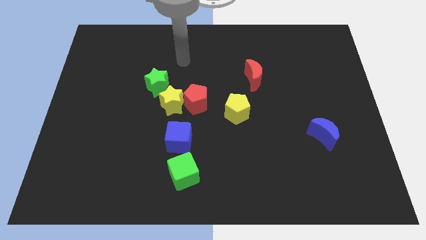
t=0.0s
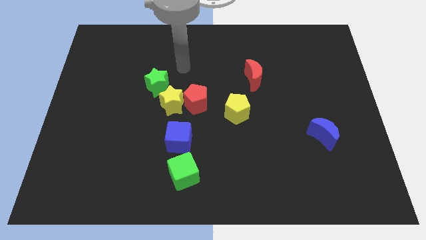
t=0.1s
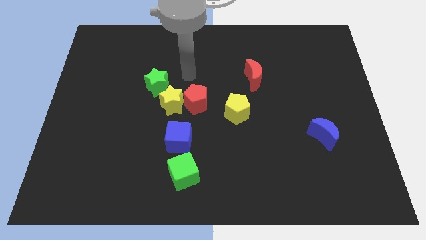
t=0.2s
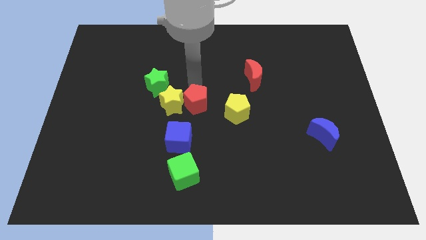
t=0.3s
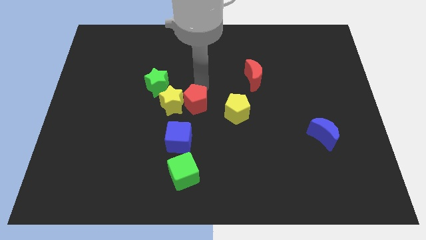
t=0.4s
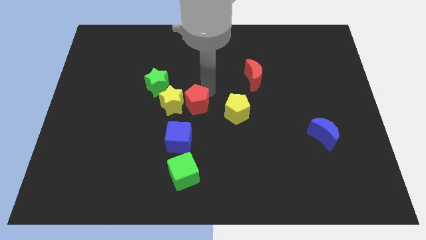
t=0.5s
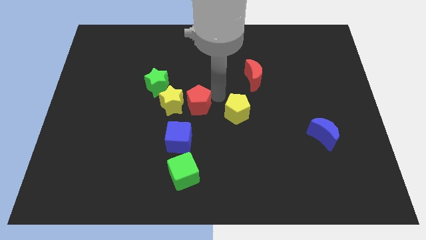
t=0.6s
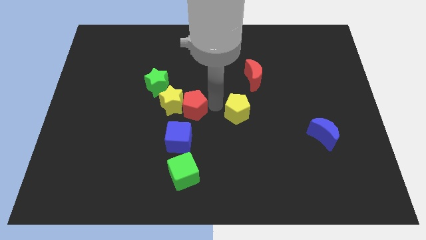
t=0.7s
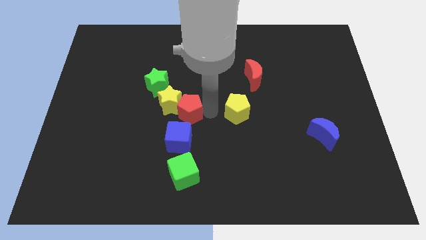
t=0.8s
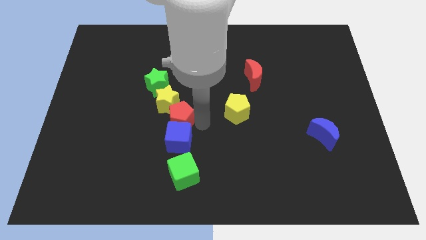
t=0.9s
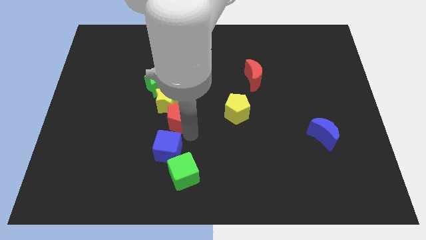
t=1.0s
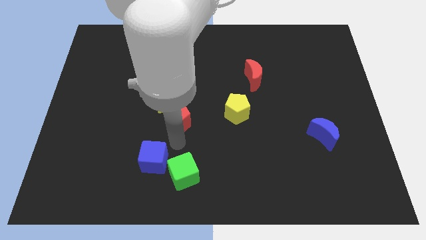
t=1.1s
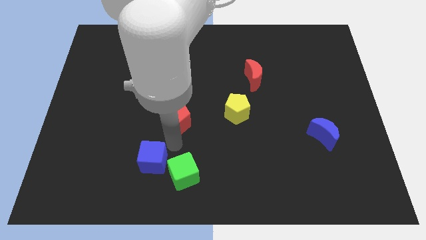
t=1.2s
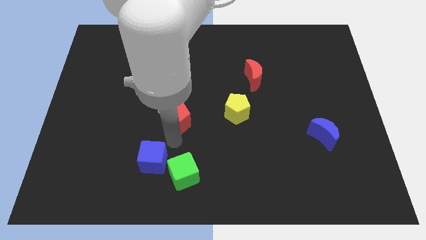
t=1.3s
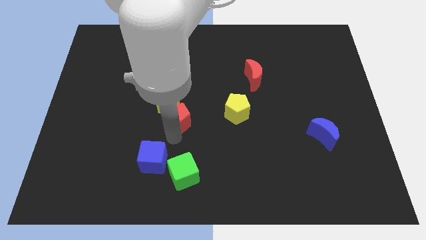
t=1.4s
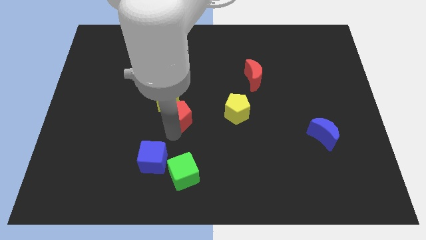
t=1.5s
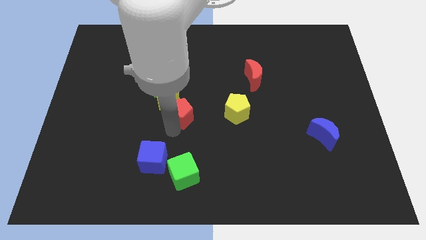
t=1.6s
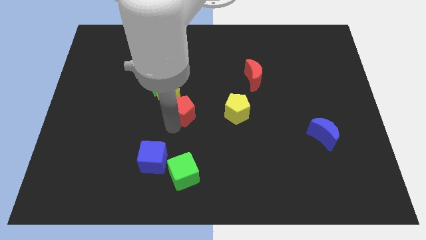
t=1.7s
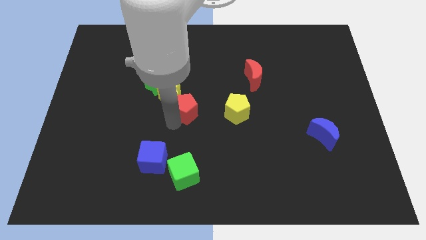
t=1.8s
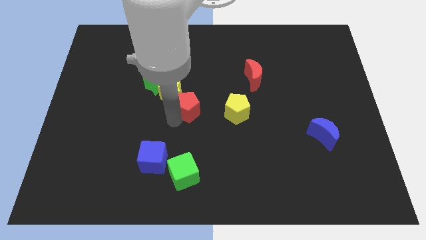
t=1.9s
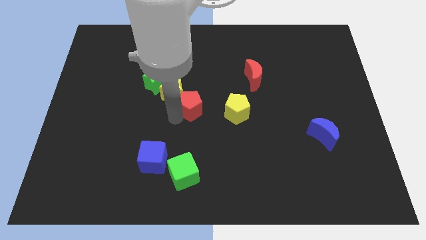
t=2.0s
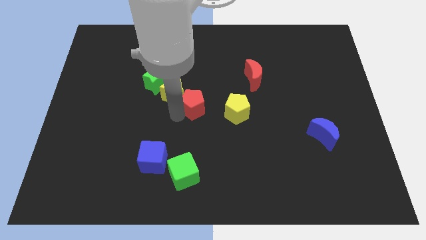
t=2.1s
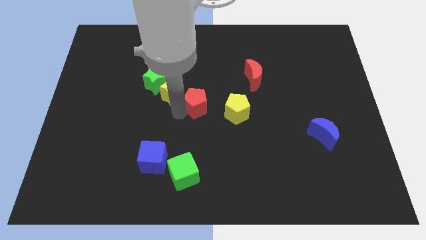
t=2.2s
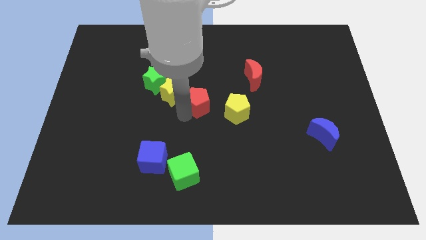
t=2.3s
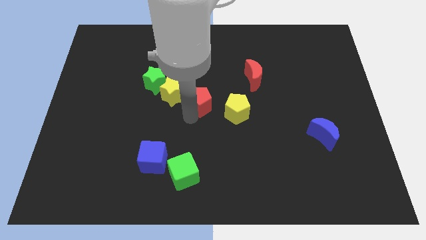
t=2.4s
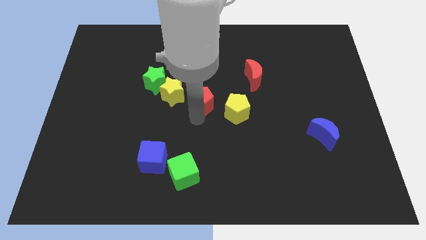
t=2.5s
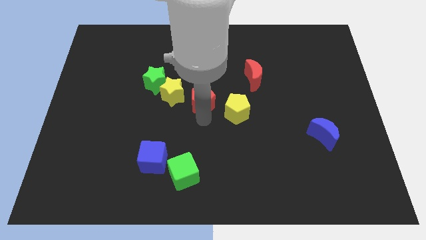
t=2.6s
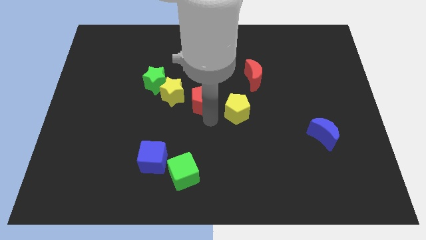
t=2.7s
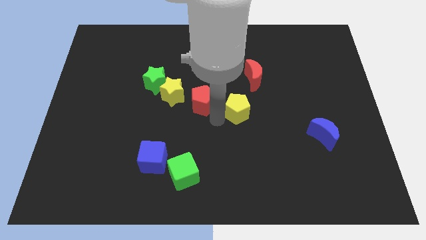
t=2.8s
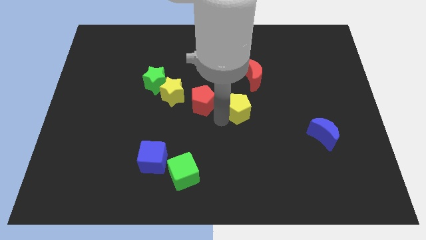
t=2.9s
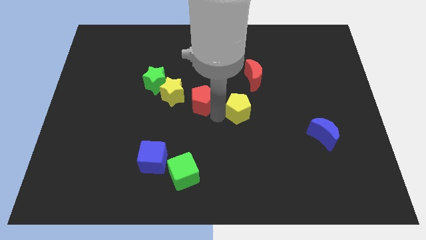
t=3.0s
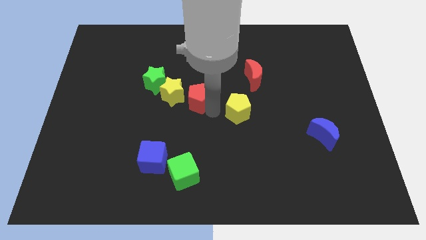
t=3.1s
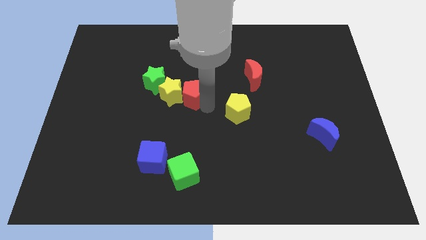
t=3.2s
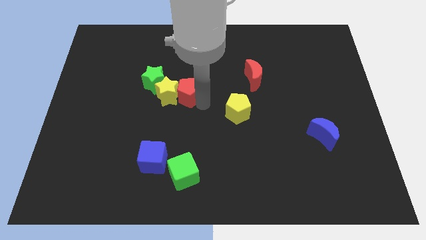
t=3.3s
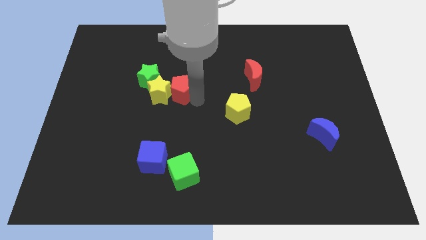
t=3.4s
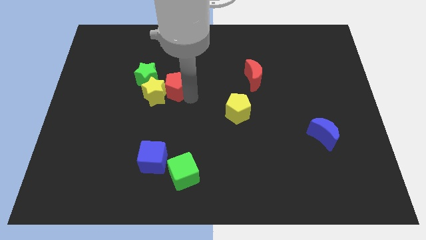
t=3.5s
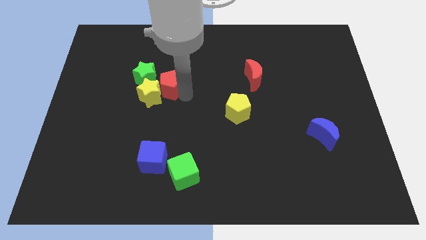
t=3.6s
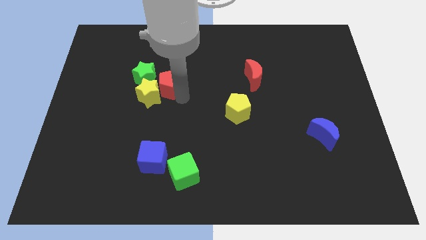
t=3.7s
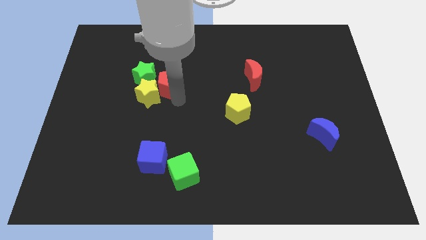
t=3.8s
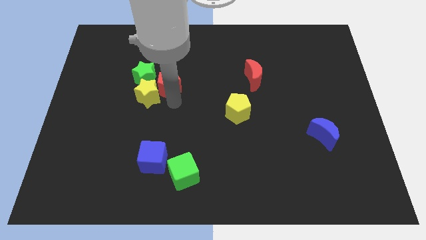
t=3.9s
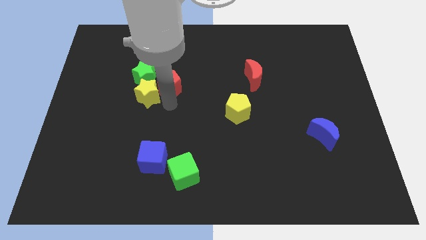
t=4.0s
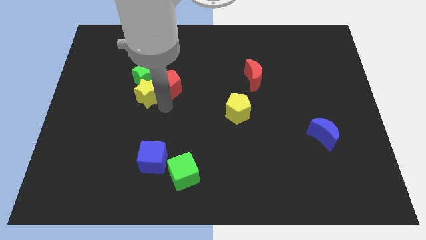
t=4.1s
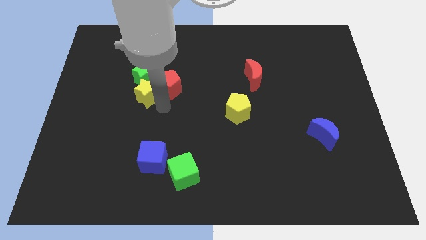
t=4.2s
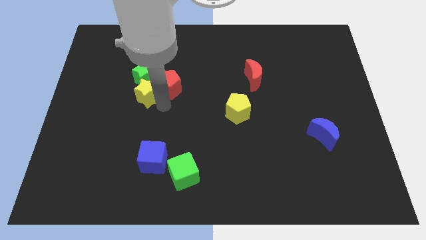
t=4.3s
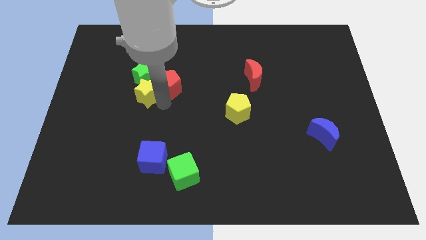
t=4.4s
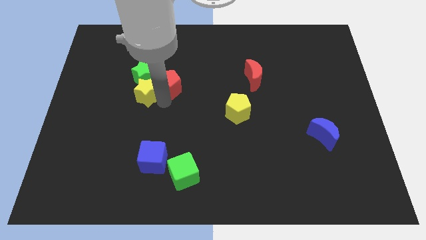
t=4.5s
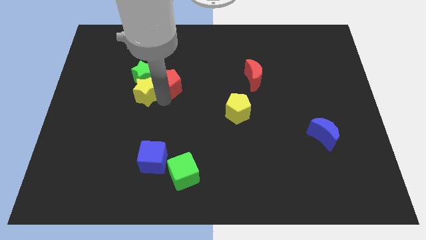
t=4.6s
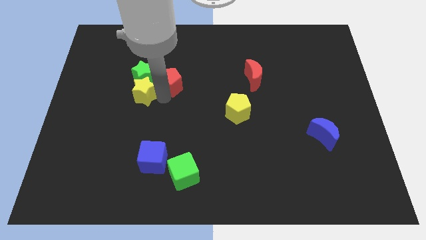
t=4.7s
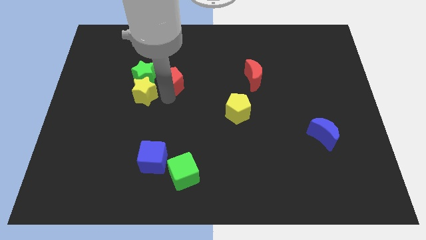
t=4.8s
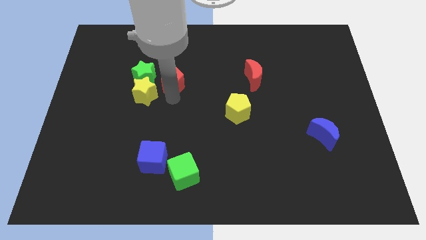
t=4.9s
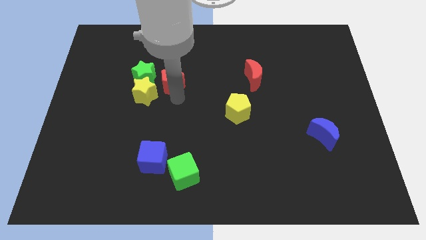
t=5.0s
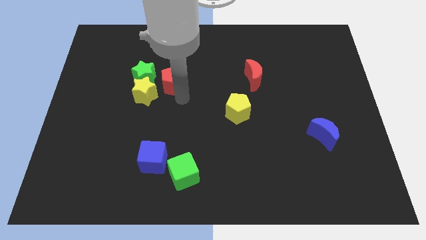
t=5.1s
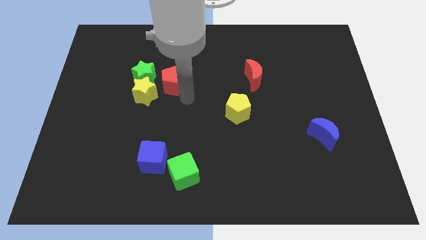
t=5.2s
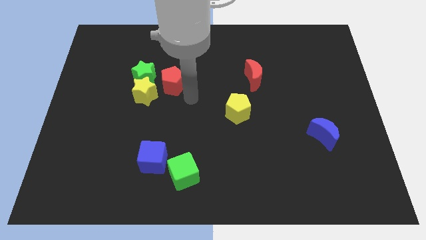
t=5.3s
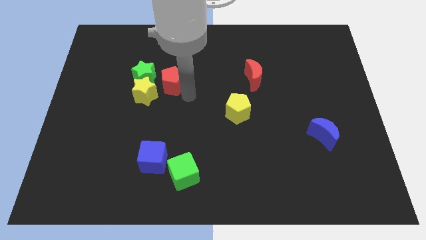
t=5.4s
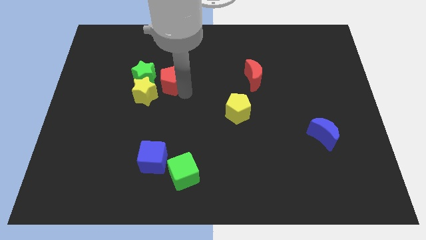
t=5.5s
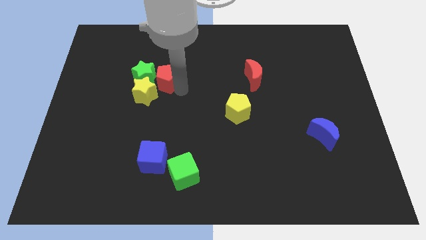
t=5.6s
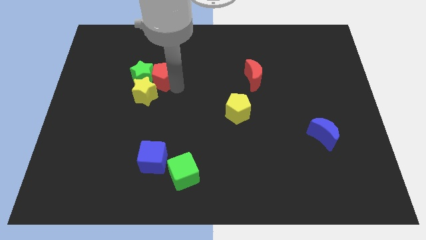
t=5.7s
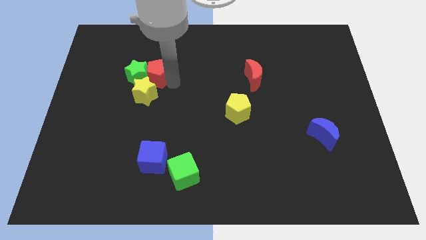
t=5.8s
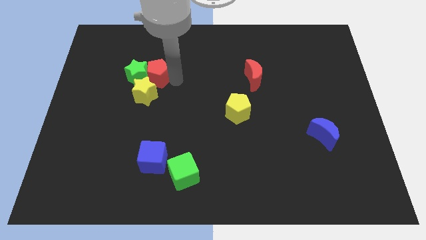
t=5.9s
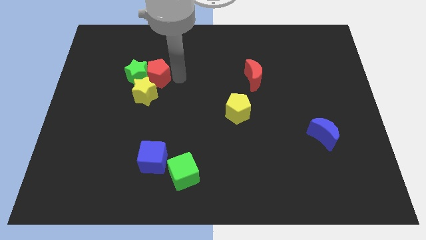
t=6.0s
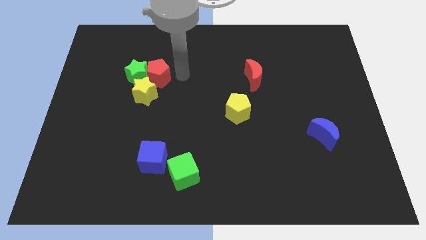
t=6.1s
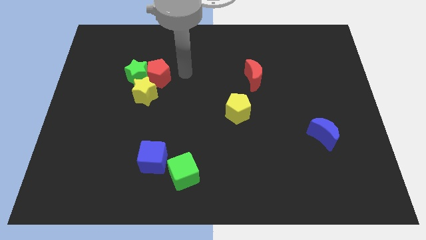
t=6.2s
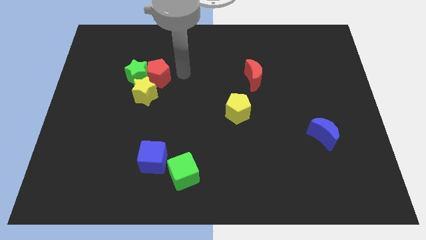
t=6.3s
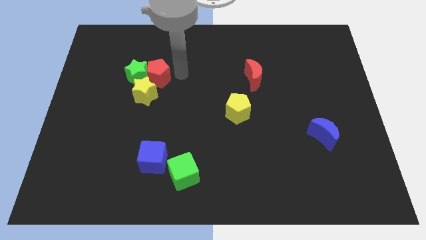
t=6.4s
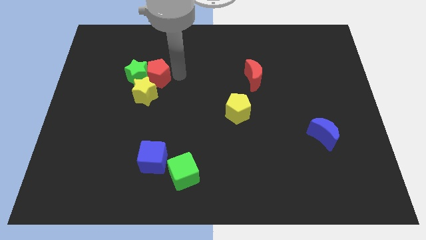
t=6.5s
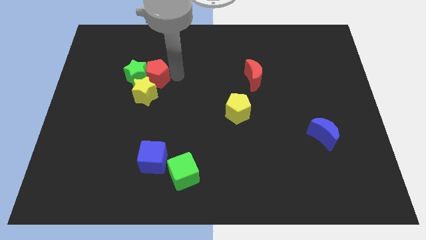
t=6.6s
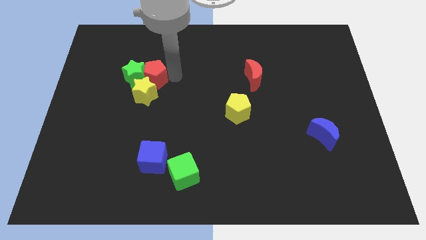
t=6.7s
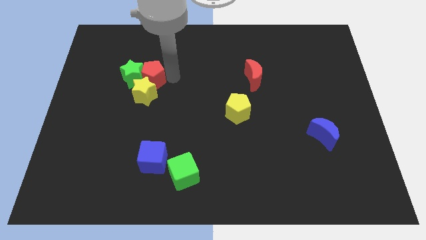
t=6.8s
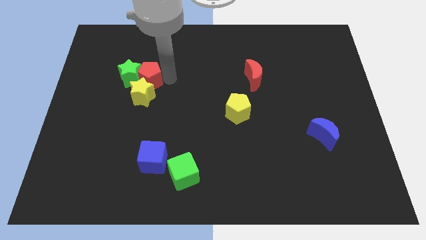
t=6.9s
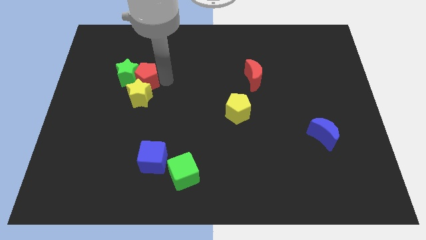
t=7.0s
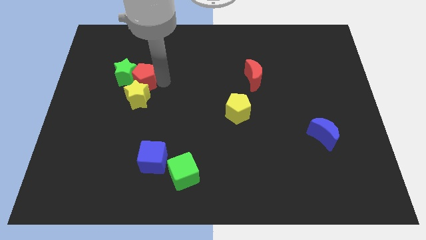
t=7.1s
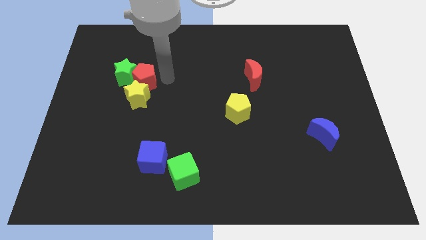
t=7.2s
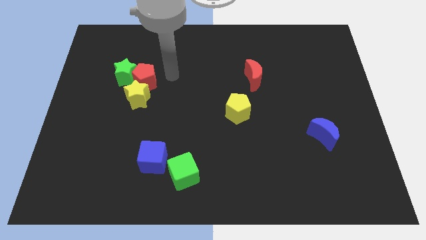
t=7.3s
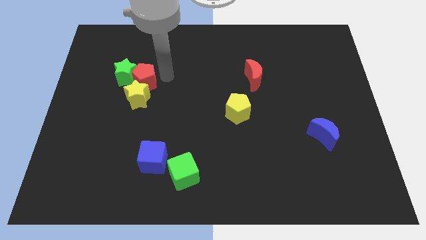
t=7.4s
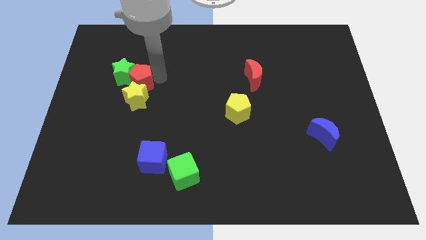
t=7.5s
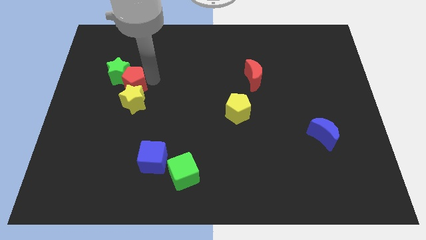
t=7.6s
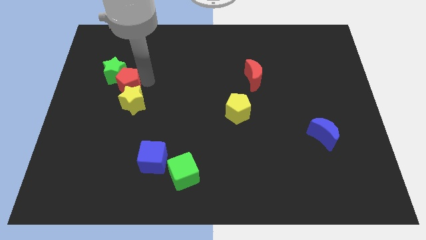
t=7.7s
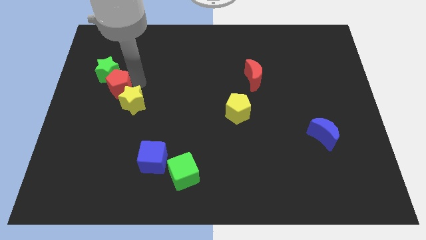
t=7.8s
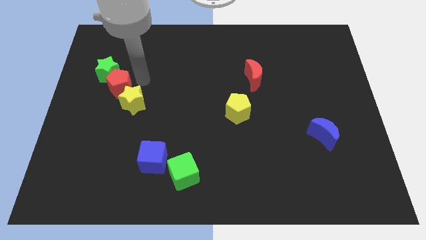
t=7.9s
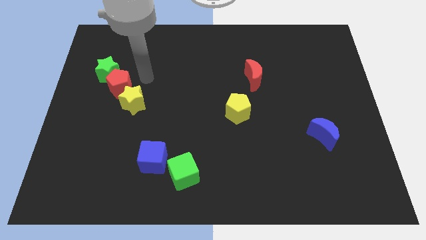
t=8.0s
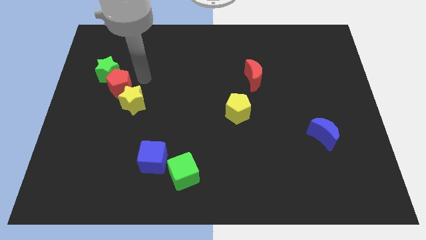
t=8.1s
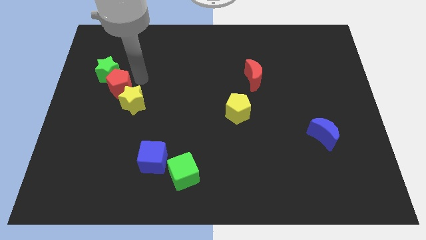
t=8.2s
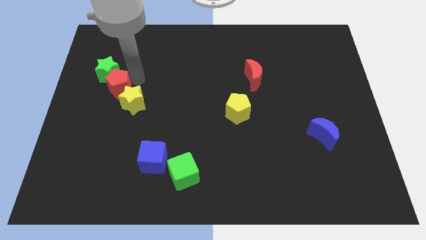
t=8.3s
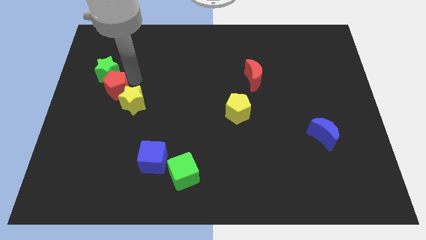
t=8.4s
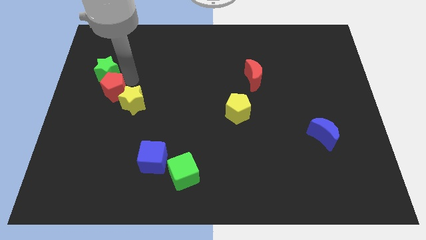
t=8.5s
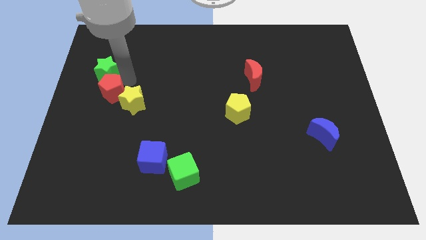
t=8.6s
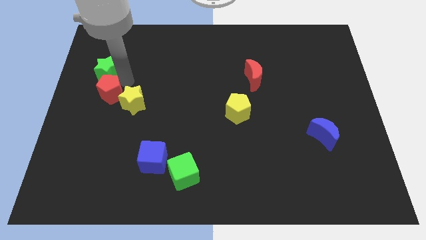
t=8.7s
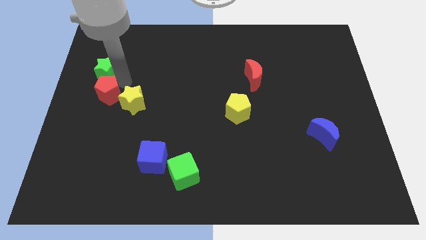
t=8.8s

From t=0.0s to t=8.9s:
move the red pentagon to the left side of the board
